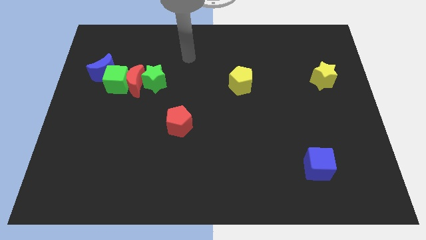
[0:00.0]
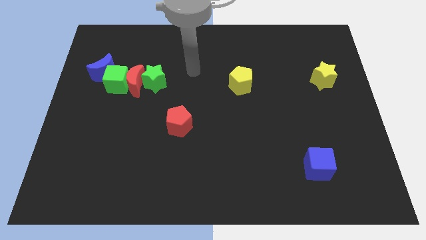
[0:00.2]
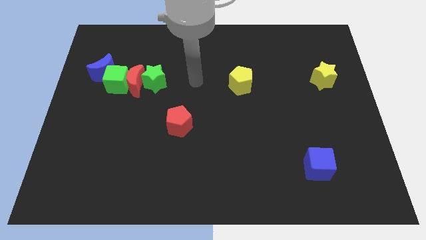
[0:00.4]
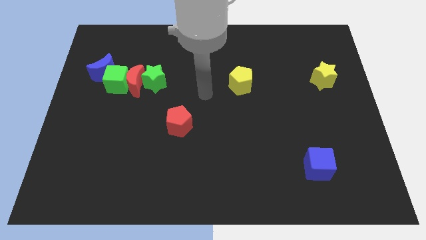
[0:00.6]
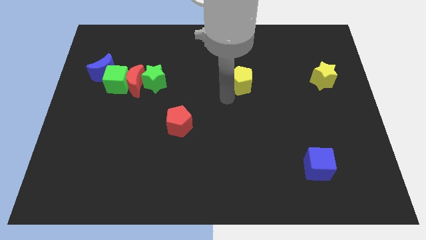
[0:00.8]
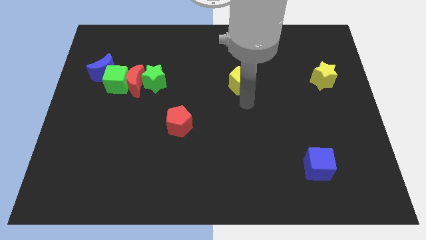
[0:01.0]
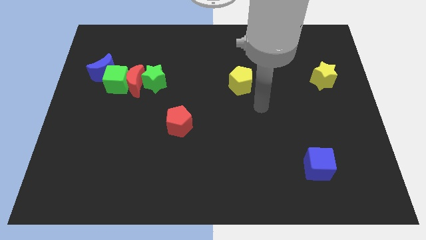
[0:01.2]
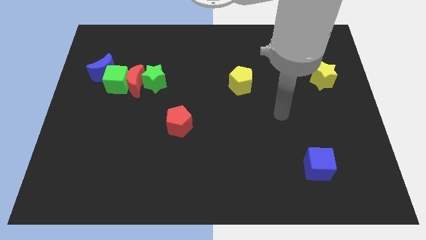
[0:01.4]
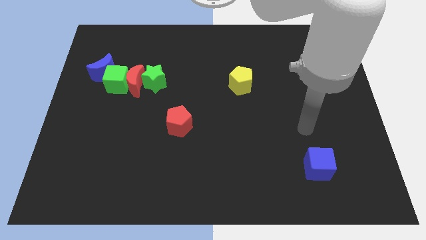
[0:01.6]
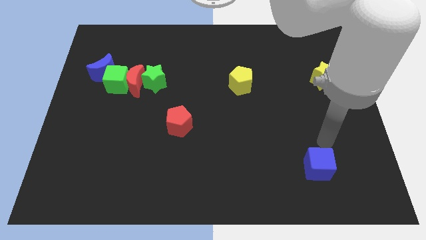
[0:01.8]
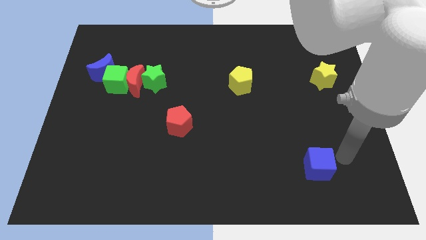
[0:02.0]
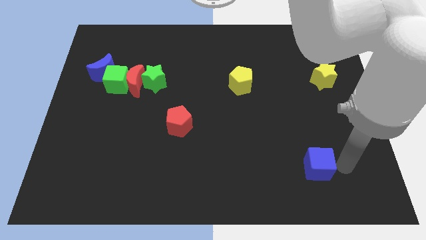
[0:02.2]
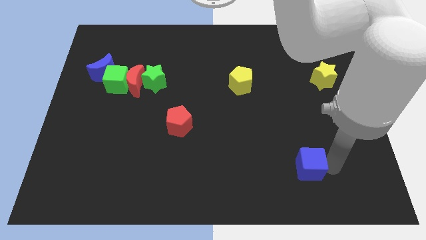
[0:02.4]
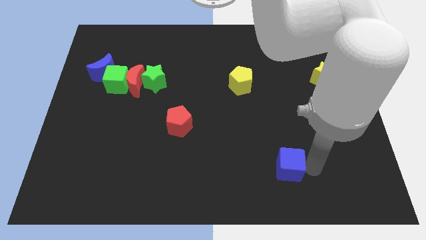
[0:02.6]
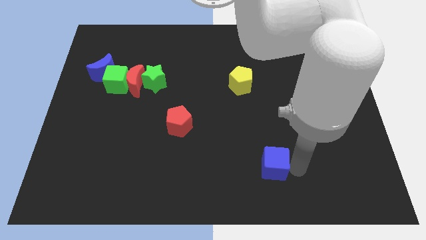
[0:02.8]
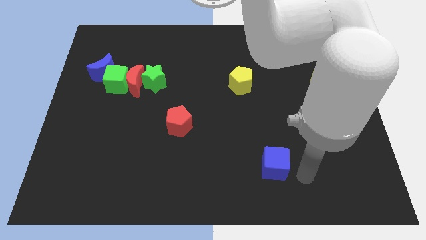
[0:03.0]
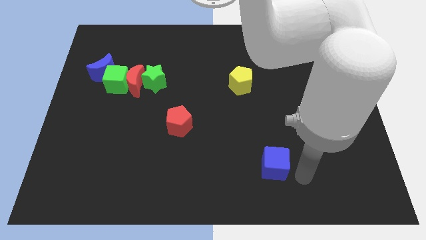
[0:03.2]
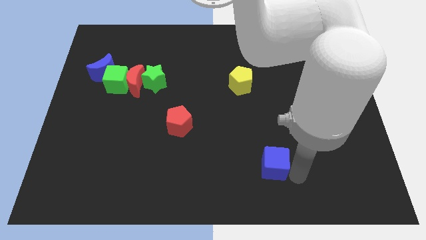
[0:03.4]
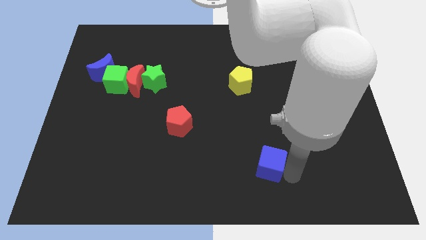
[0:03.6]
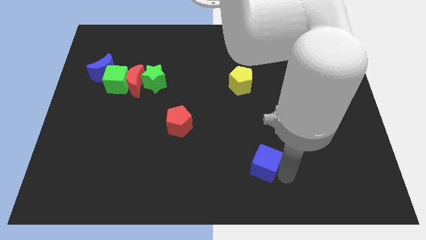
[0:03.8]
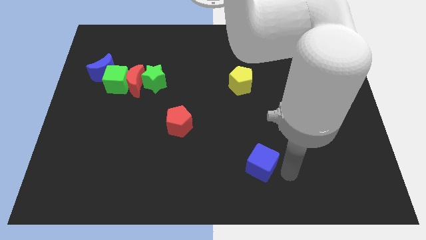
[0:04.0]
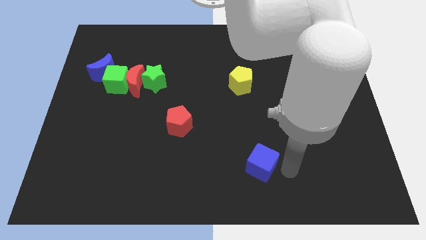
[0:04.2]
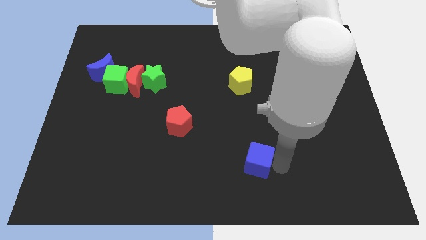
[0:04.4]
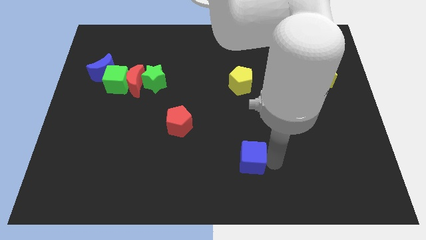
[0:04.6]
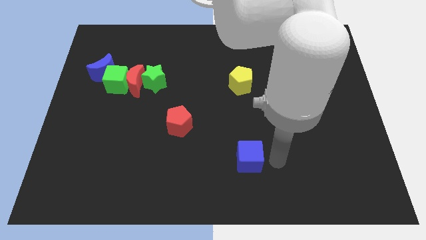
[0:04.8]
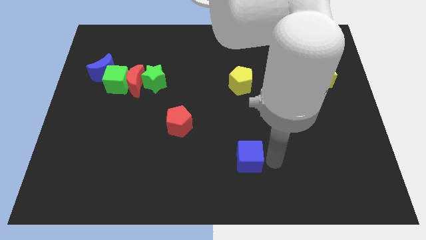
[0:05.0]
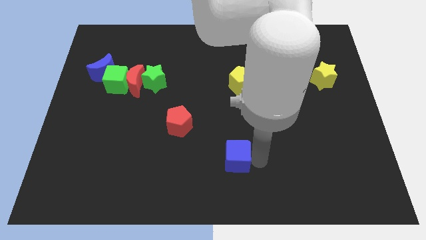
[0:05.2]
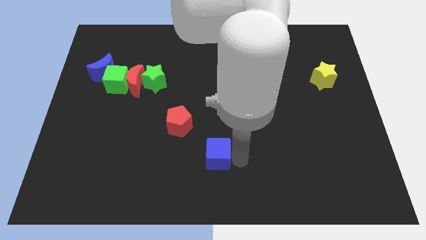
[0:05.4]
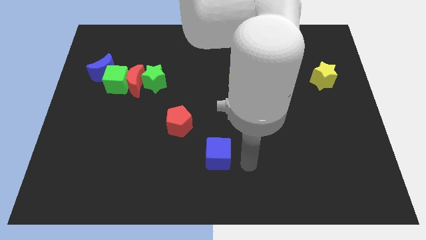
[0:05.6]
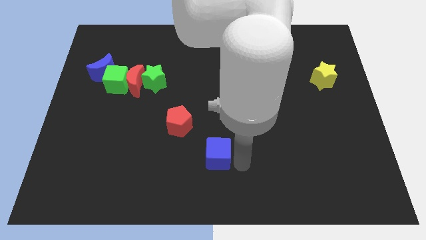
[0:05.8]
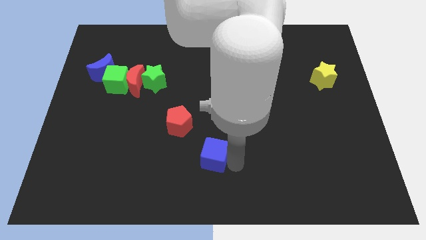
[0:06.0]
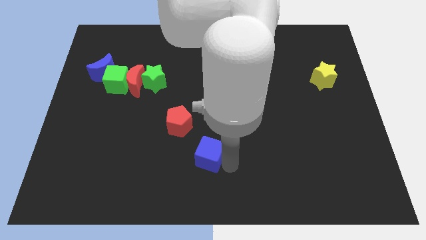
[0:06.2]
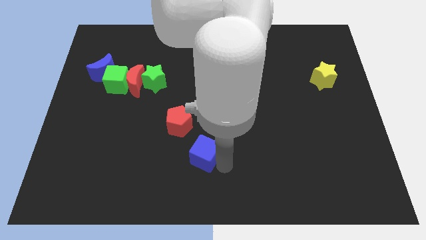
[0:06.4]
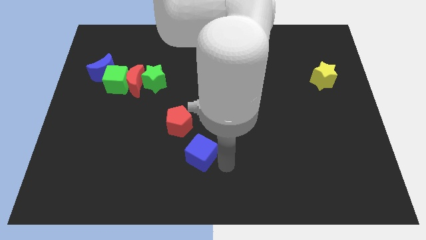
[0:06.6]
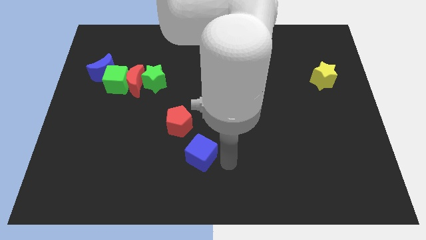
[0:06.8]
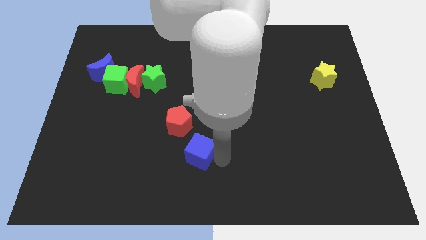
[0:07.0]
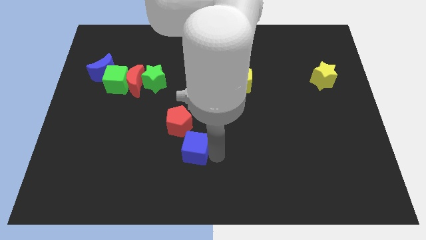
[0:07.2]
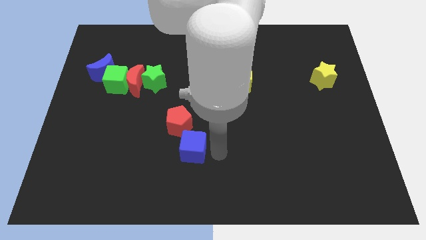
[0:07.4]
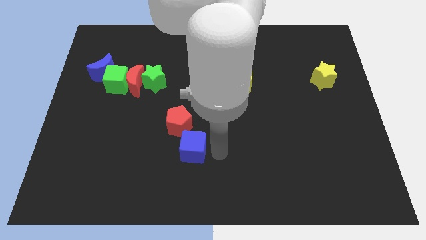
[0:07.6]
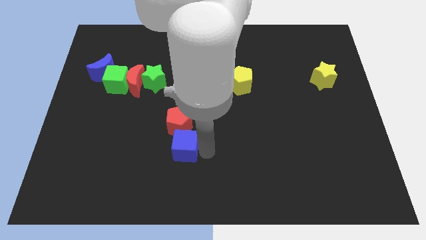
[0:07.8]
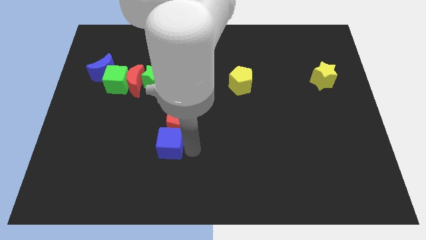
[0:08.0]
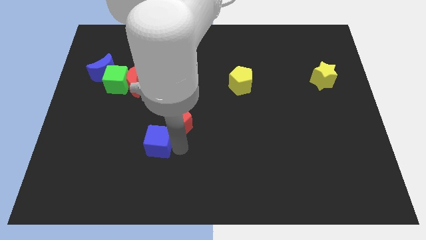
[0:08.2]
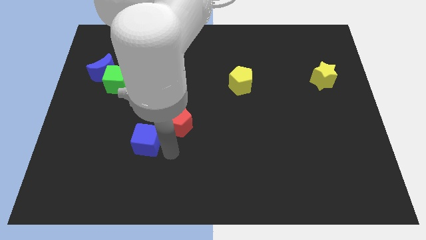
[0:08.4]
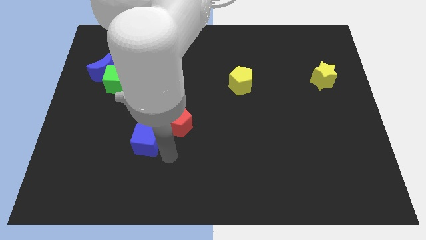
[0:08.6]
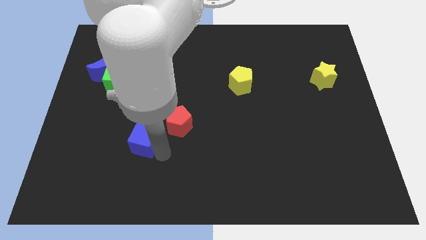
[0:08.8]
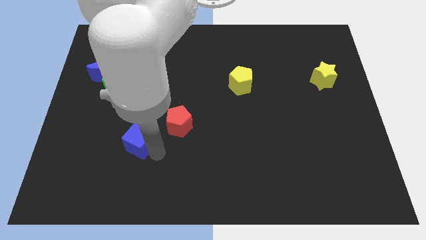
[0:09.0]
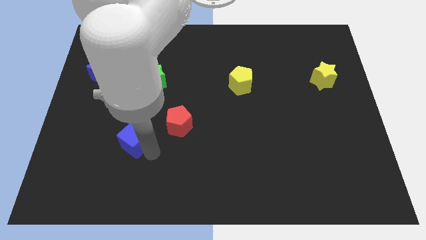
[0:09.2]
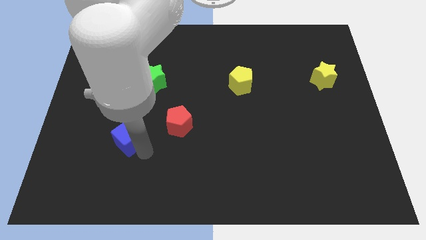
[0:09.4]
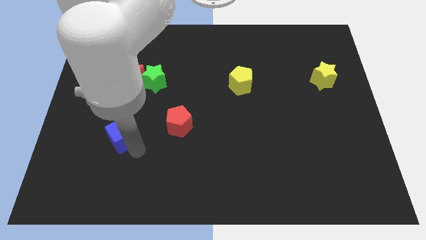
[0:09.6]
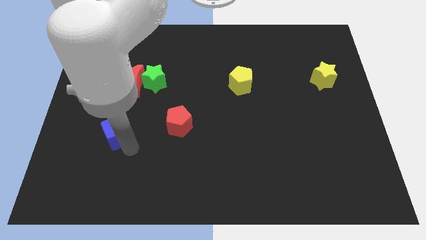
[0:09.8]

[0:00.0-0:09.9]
move the blue cube to the bottom side of the green cube

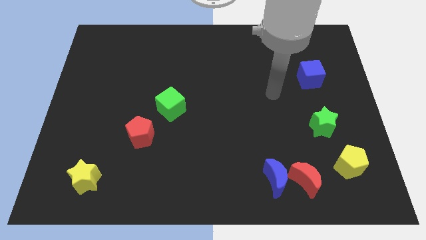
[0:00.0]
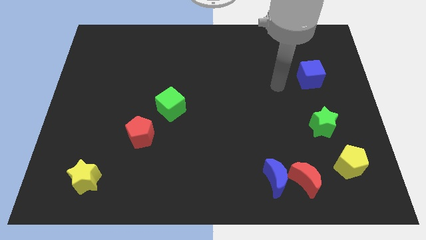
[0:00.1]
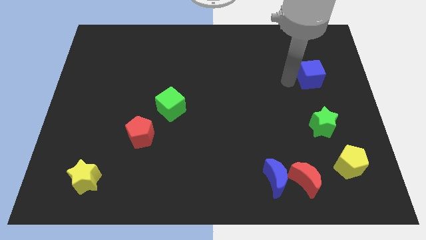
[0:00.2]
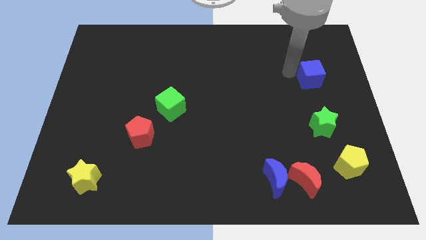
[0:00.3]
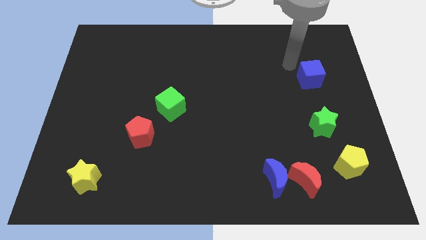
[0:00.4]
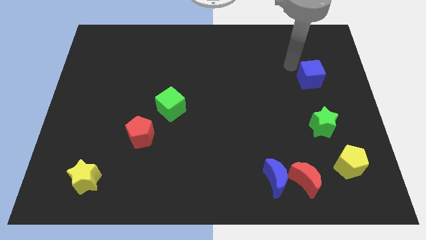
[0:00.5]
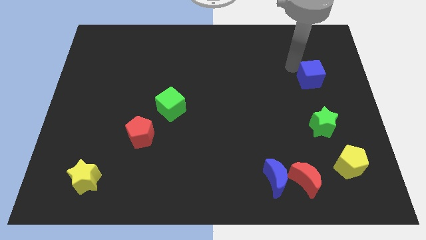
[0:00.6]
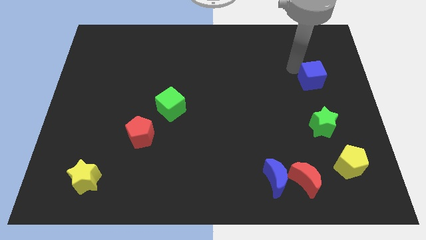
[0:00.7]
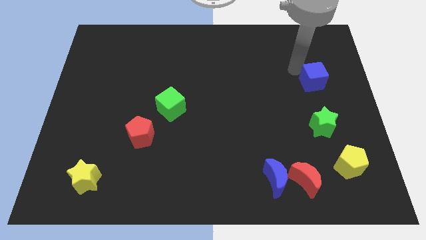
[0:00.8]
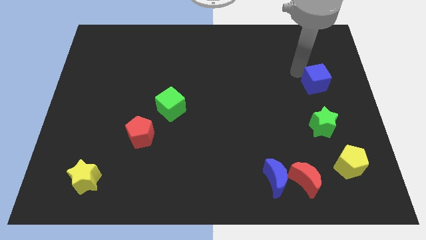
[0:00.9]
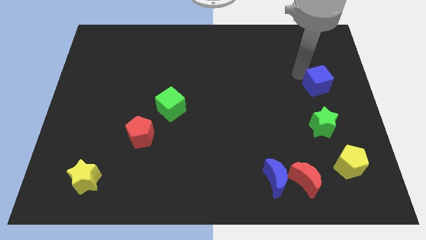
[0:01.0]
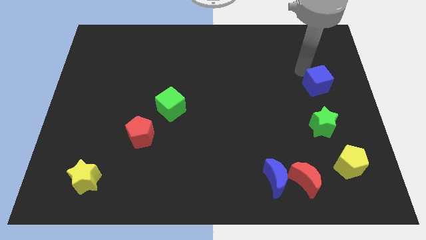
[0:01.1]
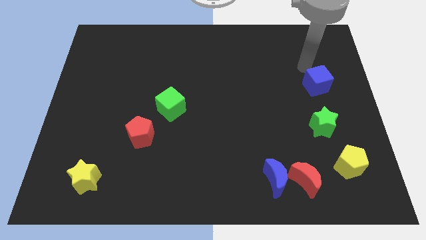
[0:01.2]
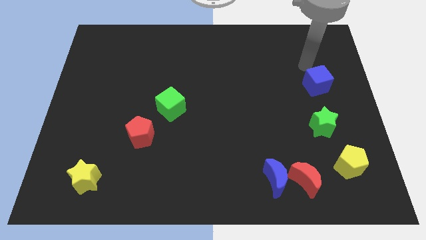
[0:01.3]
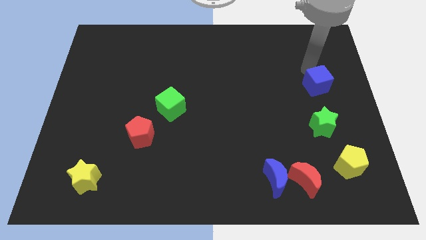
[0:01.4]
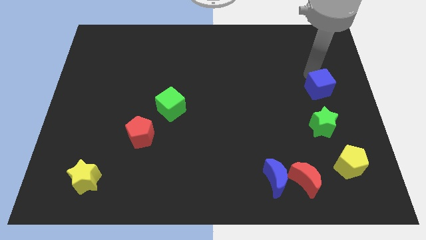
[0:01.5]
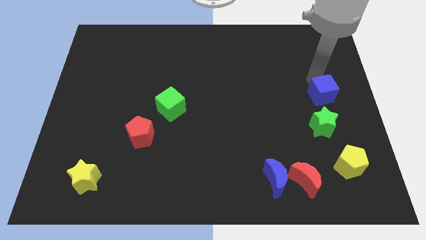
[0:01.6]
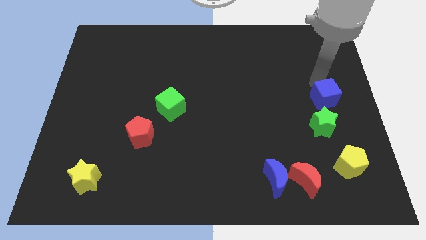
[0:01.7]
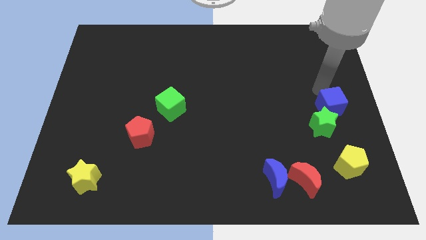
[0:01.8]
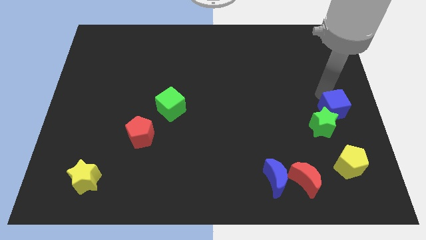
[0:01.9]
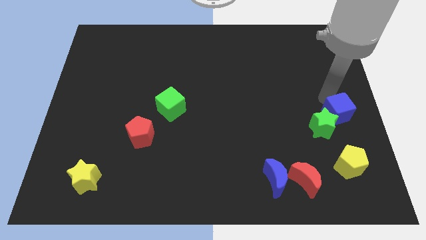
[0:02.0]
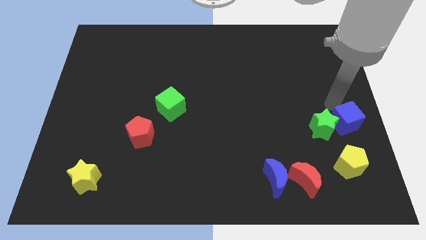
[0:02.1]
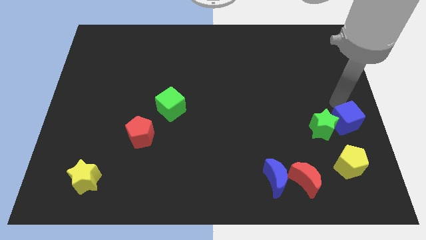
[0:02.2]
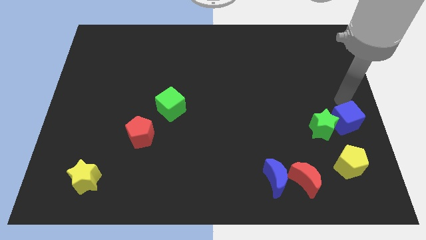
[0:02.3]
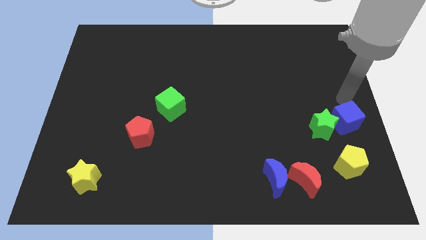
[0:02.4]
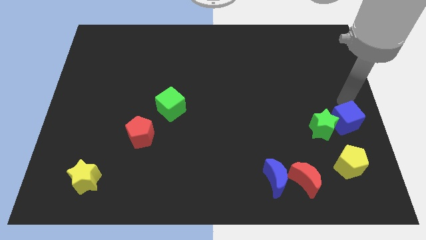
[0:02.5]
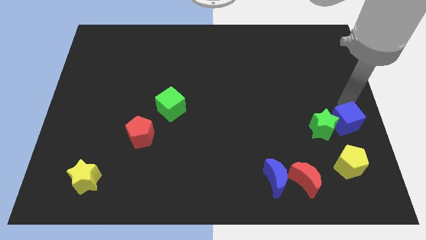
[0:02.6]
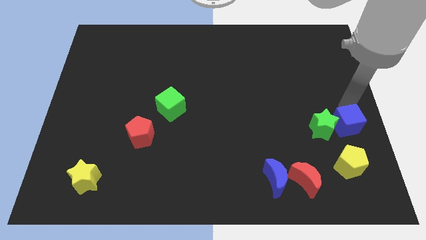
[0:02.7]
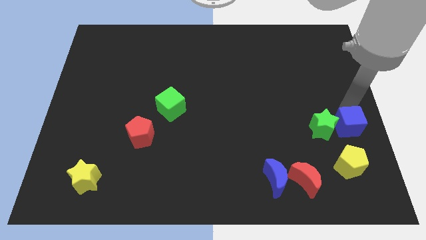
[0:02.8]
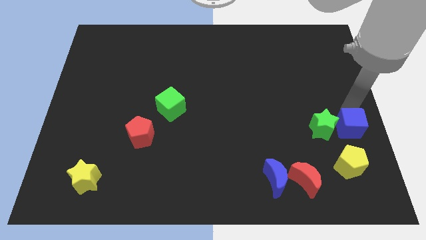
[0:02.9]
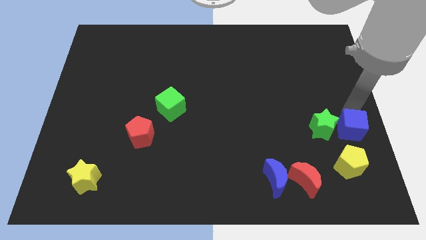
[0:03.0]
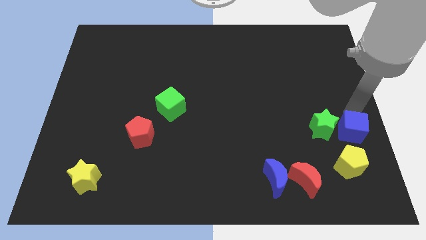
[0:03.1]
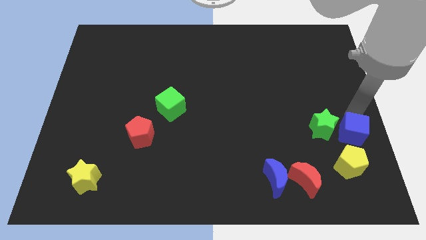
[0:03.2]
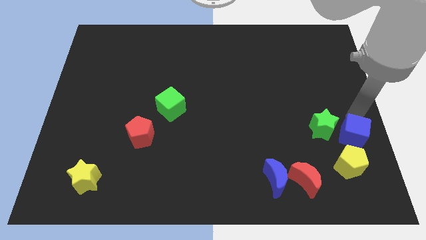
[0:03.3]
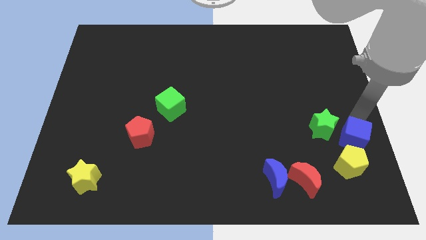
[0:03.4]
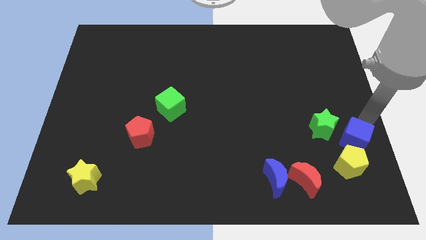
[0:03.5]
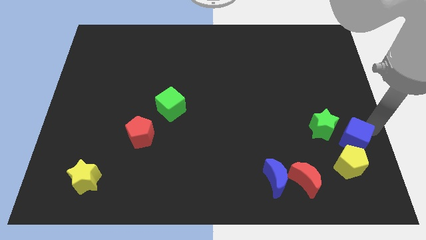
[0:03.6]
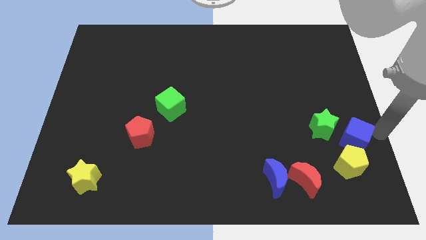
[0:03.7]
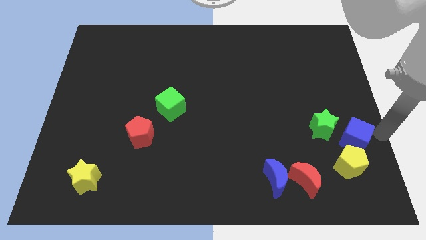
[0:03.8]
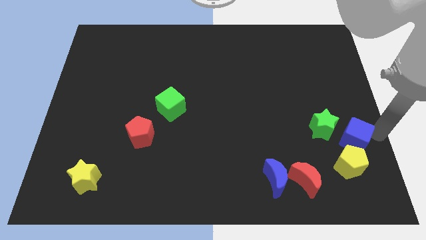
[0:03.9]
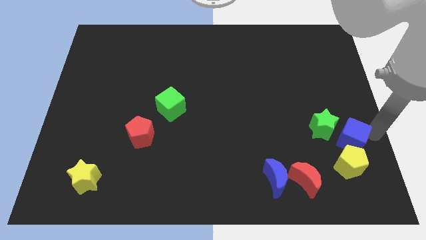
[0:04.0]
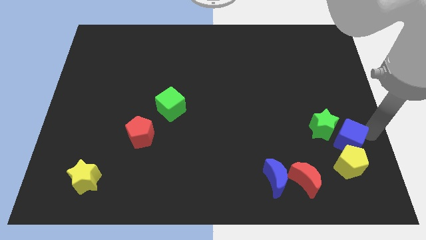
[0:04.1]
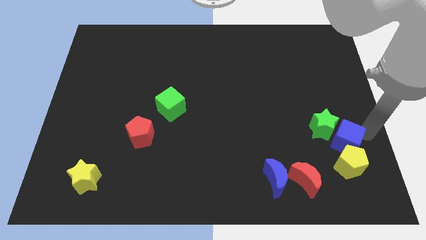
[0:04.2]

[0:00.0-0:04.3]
put the blue cube to the top left side of the yellow pentagon
